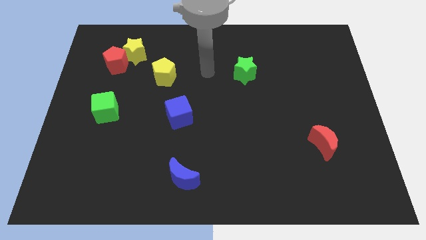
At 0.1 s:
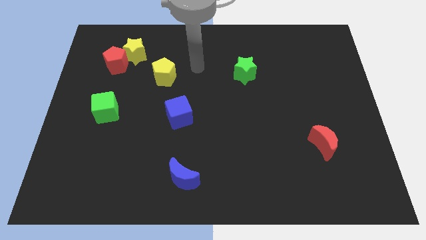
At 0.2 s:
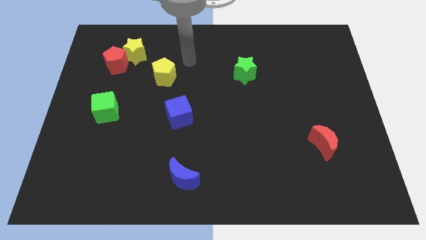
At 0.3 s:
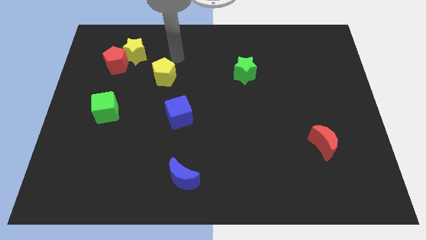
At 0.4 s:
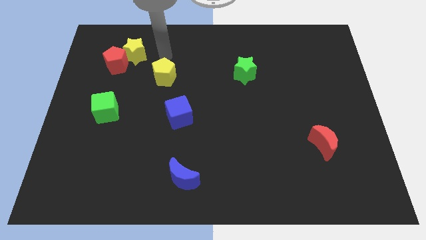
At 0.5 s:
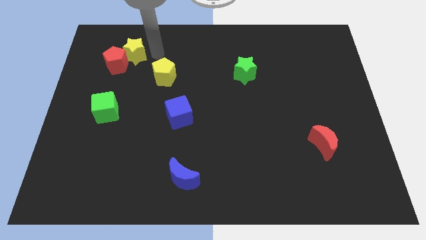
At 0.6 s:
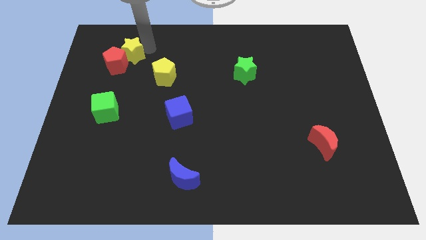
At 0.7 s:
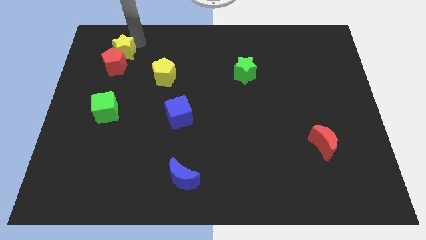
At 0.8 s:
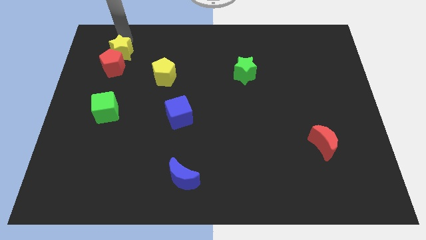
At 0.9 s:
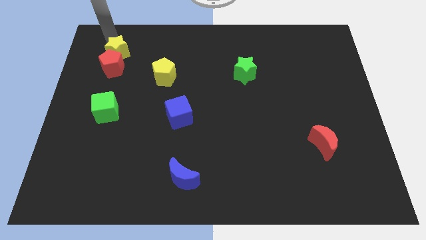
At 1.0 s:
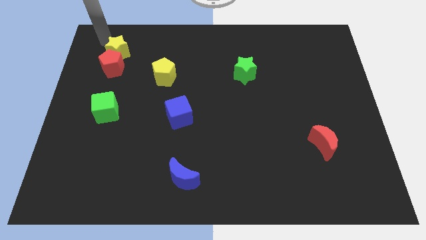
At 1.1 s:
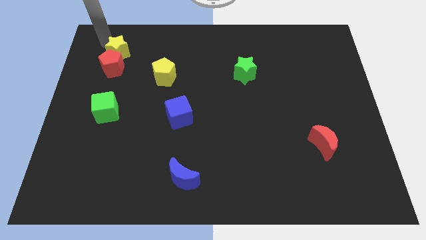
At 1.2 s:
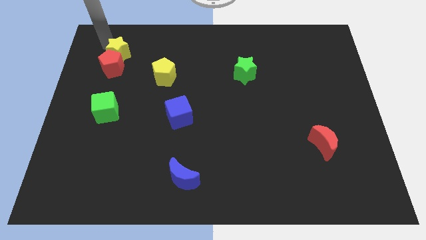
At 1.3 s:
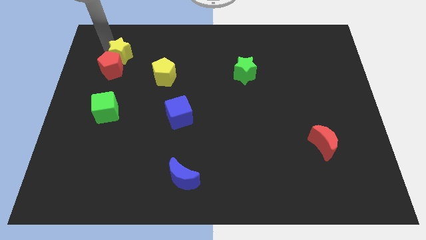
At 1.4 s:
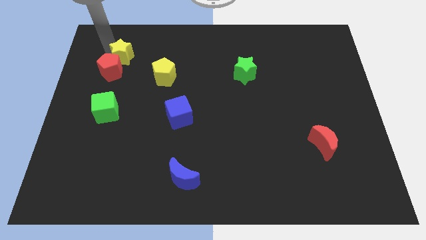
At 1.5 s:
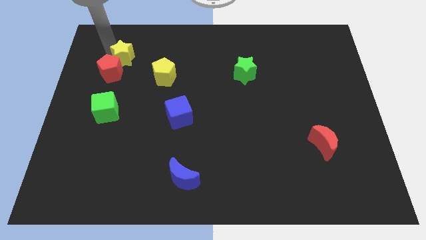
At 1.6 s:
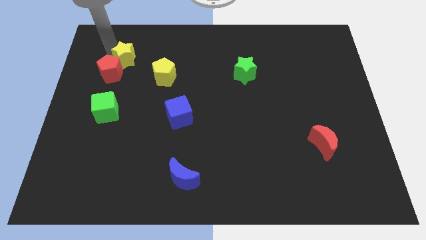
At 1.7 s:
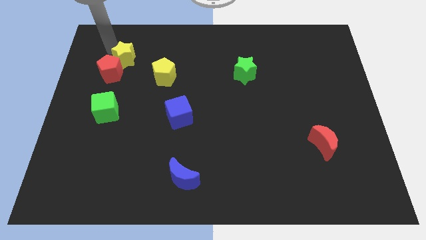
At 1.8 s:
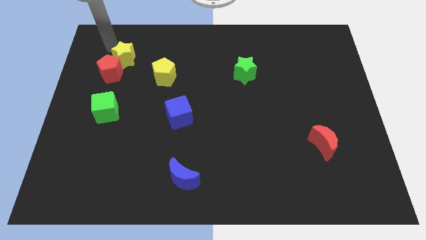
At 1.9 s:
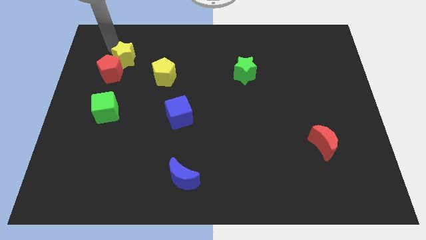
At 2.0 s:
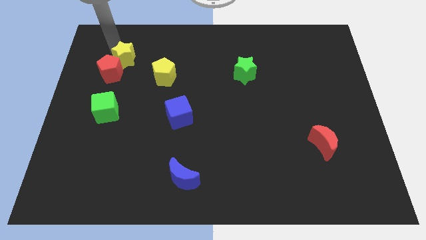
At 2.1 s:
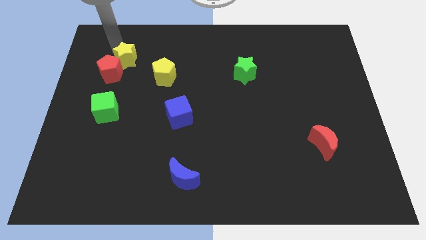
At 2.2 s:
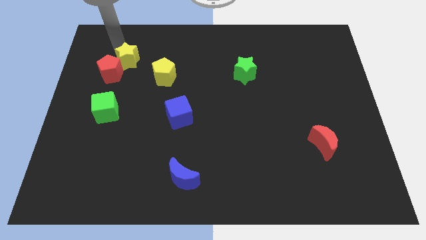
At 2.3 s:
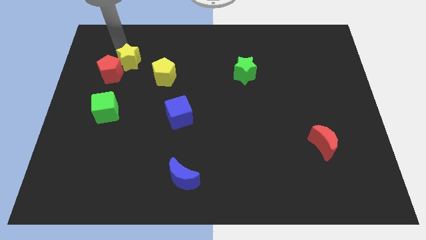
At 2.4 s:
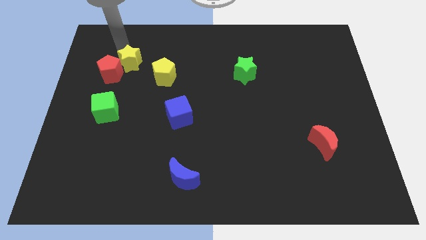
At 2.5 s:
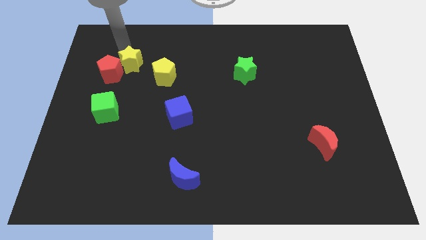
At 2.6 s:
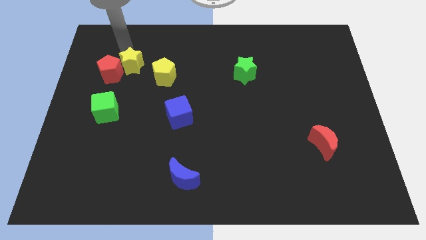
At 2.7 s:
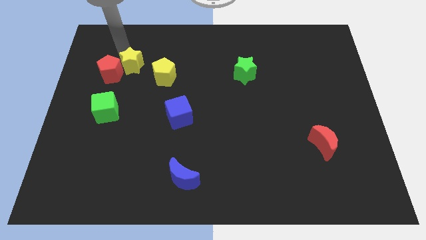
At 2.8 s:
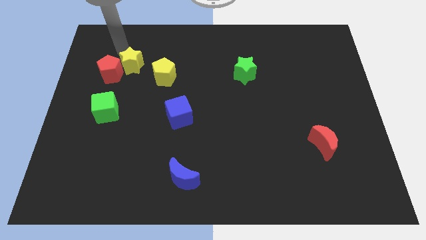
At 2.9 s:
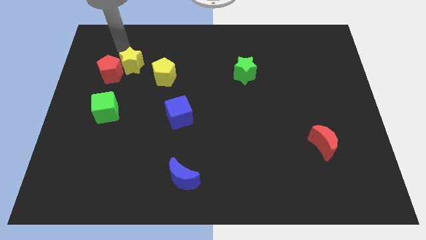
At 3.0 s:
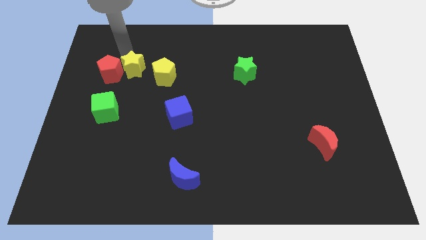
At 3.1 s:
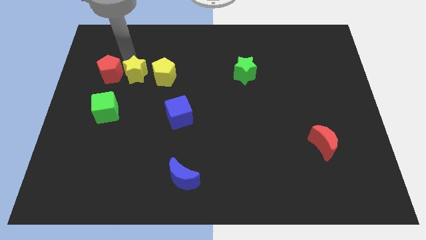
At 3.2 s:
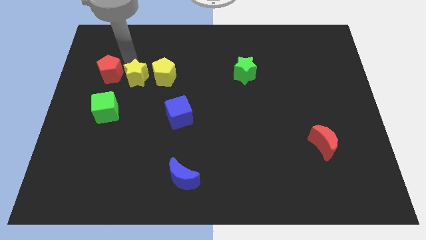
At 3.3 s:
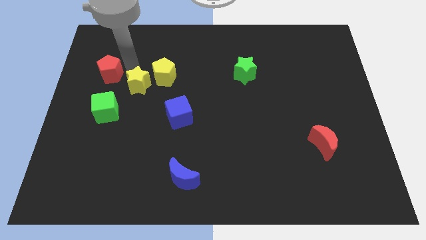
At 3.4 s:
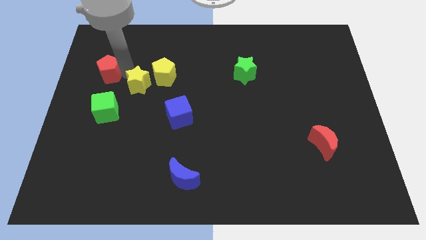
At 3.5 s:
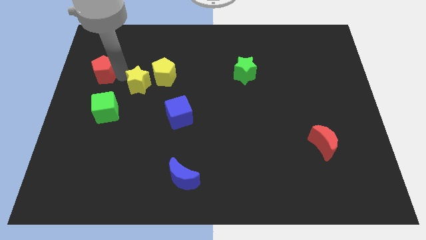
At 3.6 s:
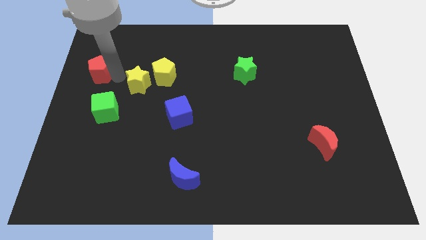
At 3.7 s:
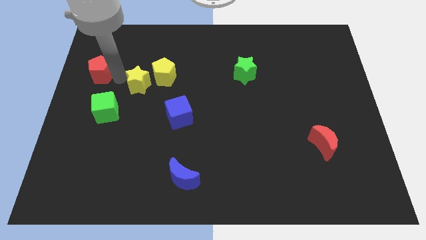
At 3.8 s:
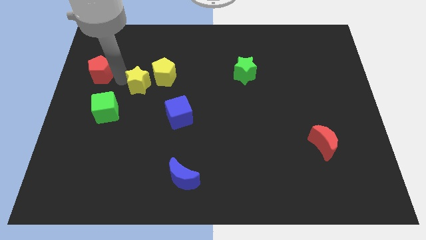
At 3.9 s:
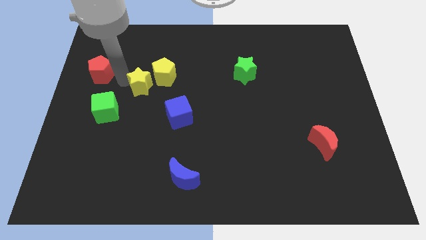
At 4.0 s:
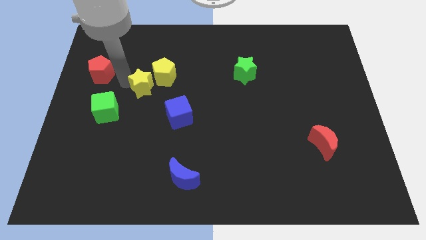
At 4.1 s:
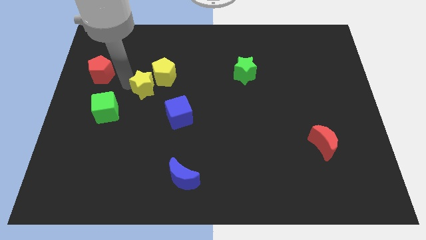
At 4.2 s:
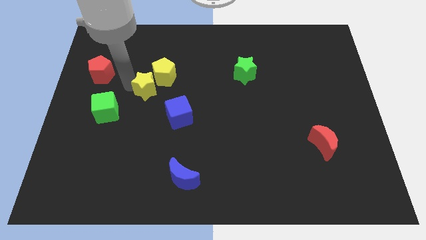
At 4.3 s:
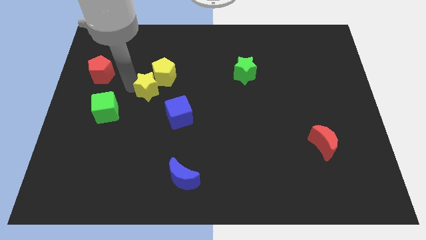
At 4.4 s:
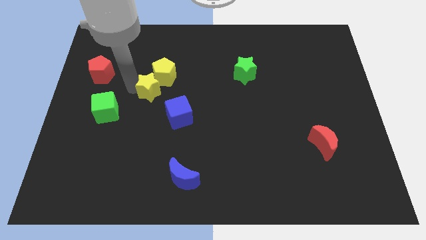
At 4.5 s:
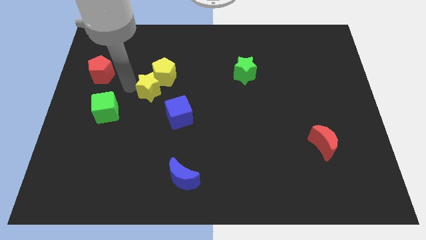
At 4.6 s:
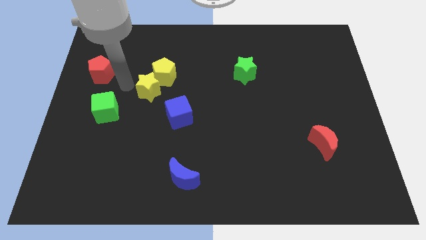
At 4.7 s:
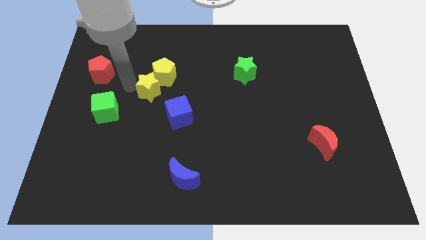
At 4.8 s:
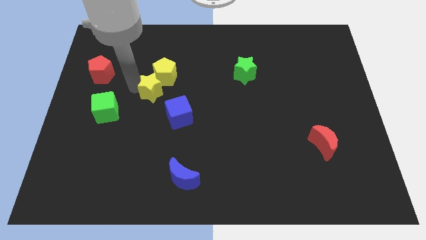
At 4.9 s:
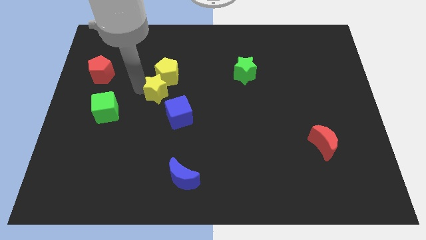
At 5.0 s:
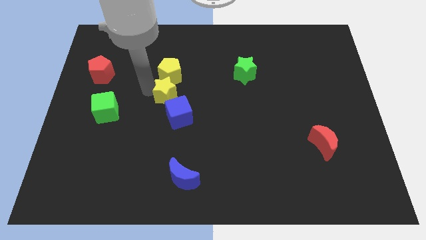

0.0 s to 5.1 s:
slide the yellow star to the middle

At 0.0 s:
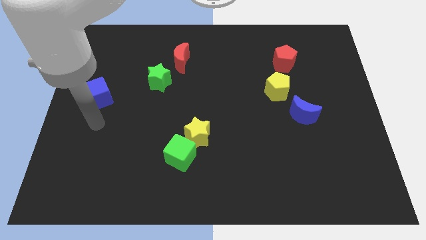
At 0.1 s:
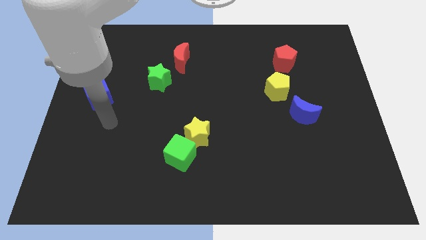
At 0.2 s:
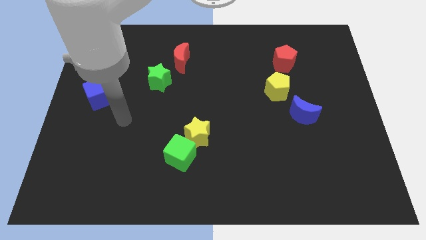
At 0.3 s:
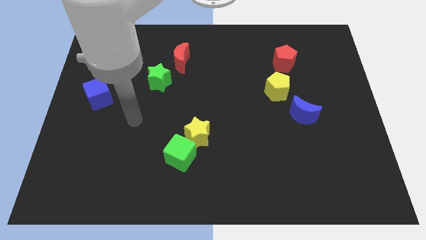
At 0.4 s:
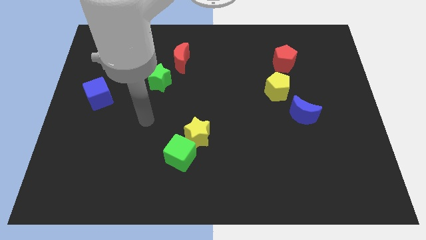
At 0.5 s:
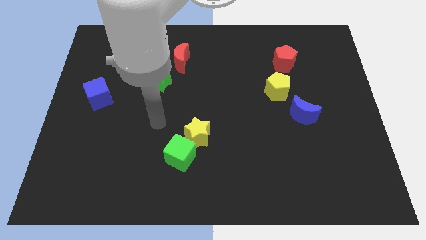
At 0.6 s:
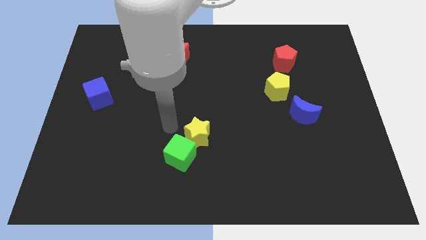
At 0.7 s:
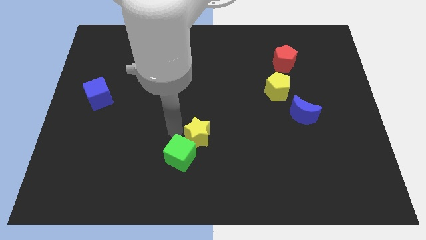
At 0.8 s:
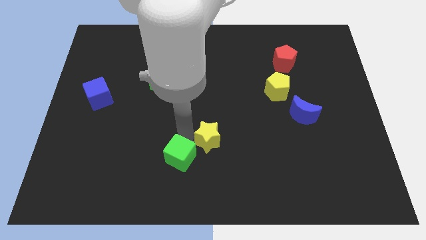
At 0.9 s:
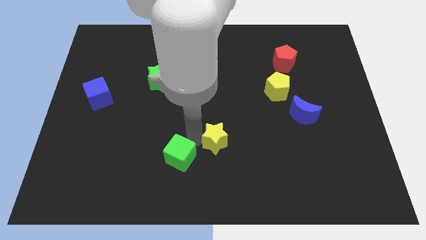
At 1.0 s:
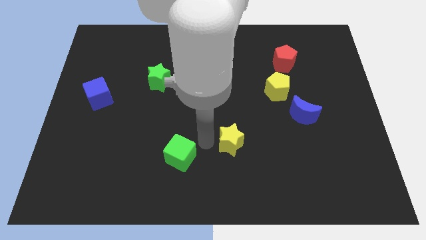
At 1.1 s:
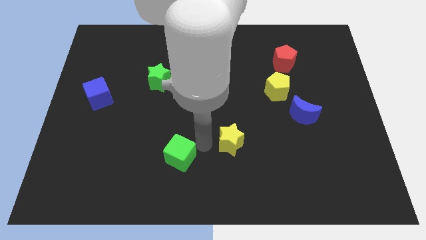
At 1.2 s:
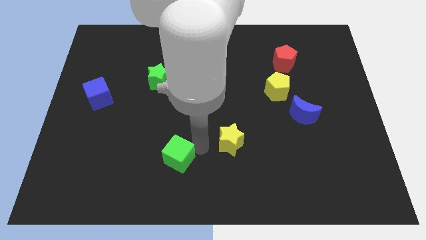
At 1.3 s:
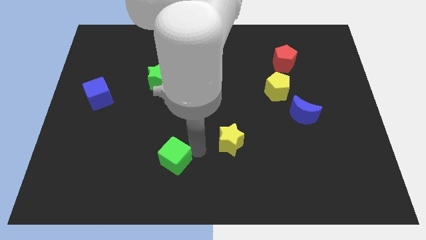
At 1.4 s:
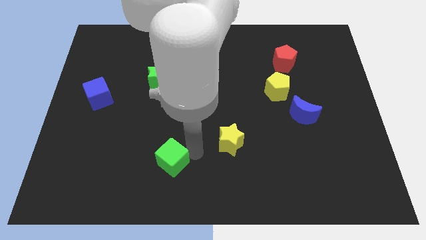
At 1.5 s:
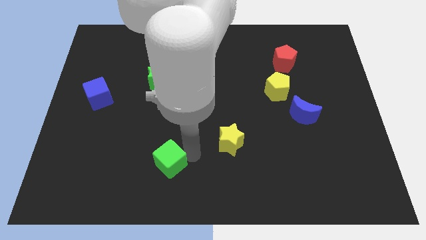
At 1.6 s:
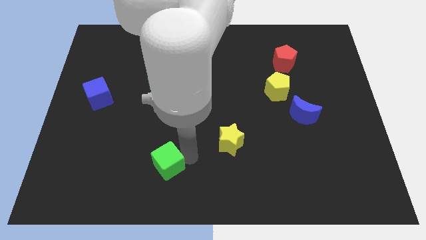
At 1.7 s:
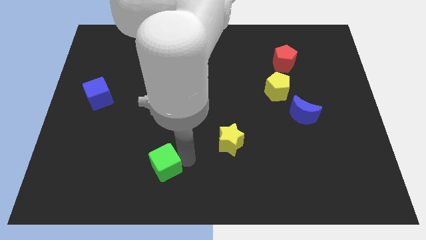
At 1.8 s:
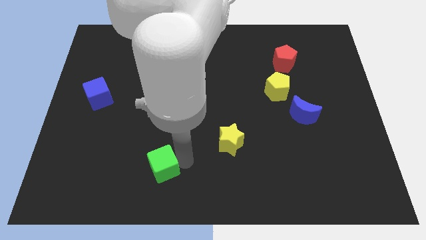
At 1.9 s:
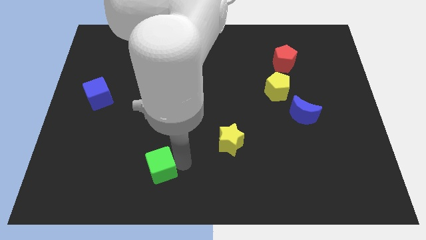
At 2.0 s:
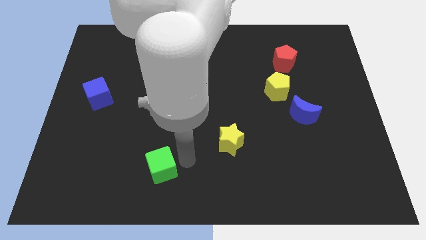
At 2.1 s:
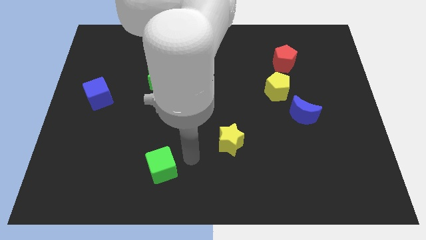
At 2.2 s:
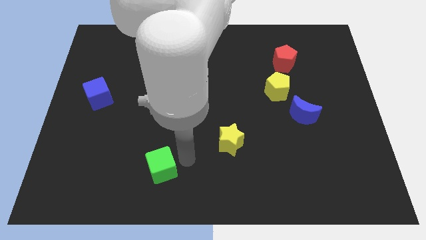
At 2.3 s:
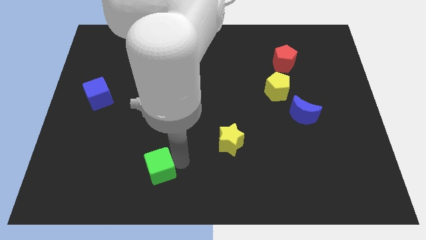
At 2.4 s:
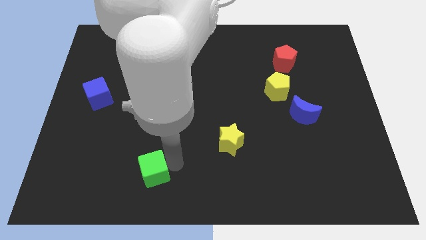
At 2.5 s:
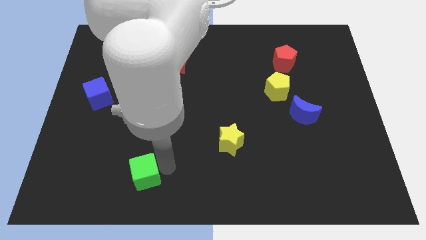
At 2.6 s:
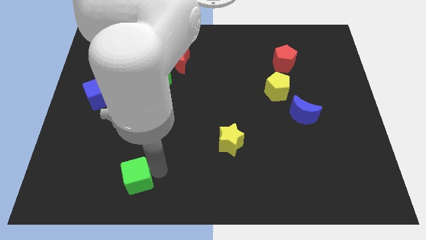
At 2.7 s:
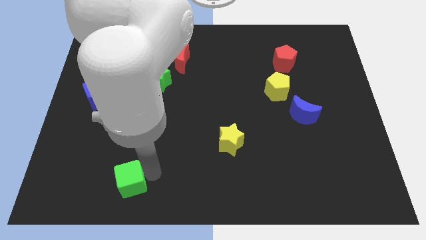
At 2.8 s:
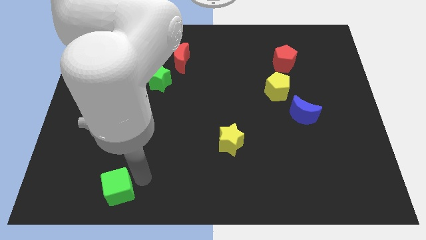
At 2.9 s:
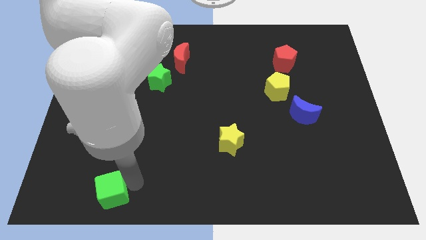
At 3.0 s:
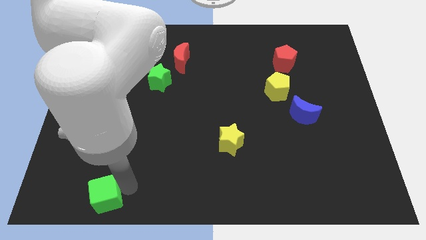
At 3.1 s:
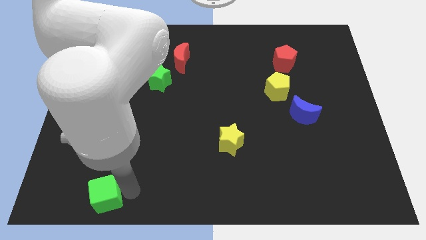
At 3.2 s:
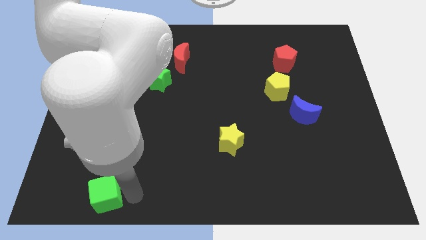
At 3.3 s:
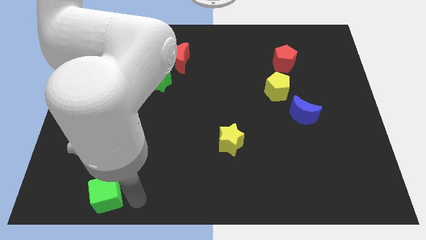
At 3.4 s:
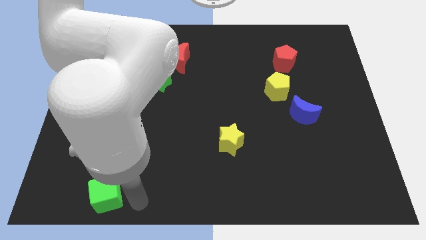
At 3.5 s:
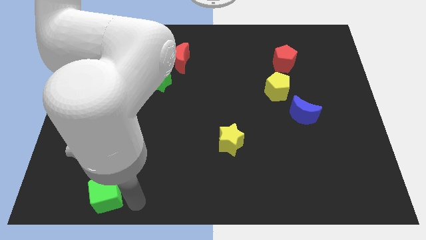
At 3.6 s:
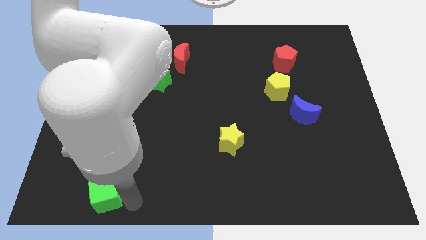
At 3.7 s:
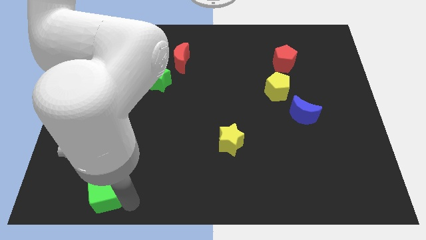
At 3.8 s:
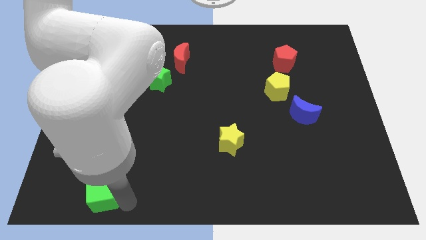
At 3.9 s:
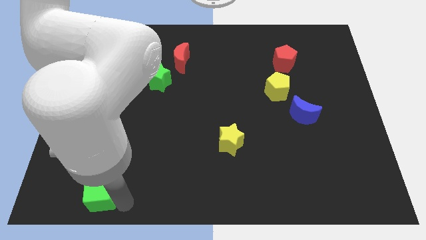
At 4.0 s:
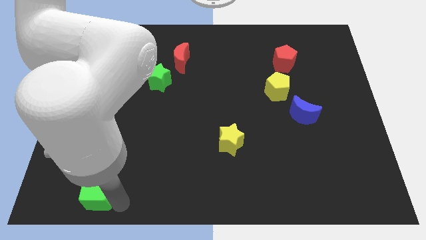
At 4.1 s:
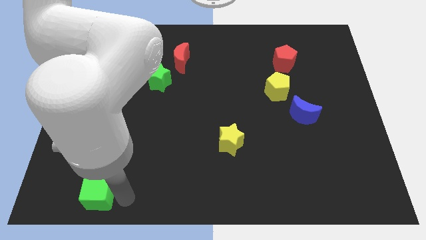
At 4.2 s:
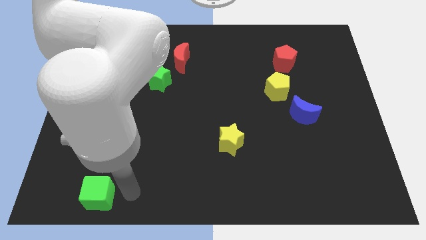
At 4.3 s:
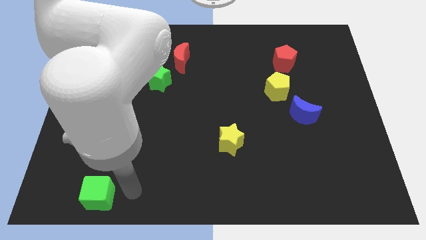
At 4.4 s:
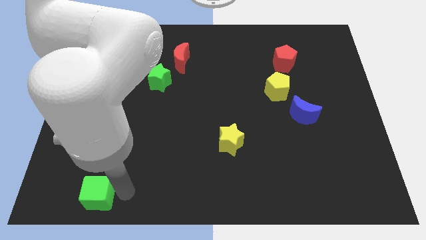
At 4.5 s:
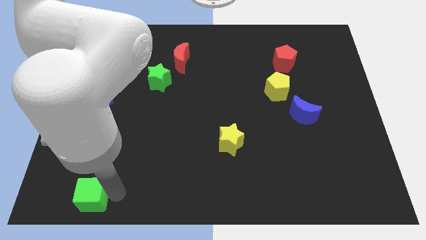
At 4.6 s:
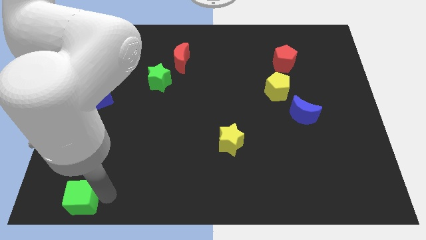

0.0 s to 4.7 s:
put the green cube to the lower left corner
